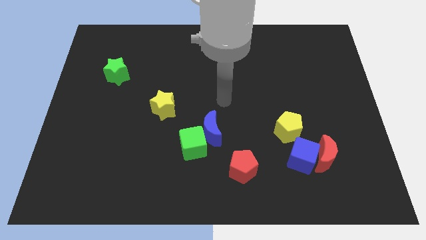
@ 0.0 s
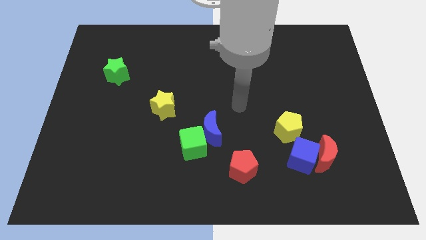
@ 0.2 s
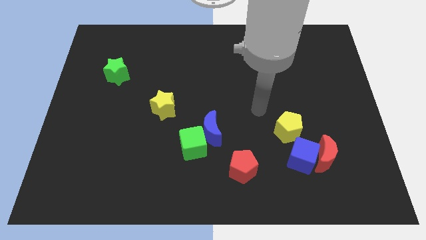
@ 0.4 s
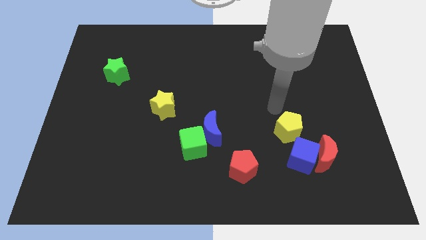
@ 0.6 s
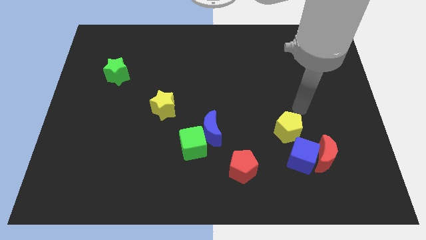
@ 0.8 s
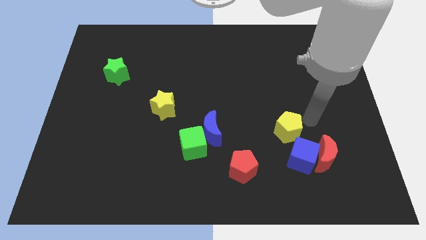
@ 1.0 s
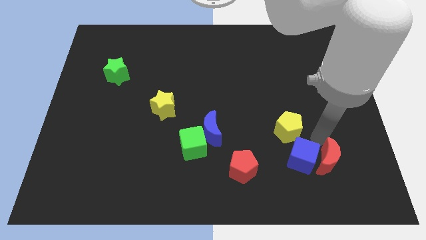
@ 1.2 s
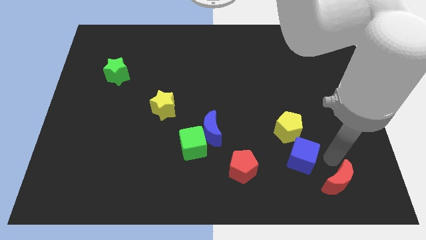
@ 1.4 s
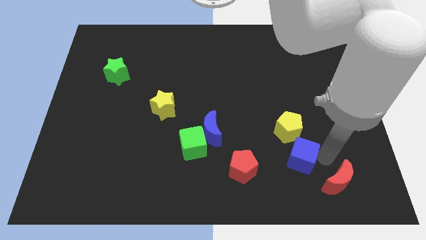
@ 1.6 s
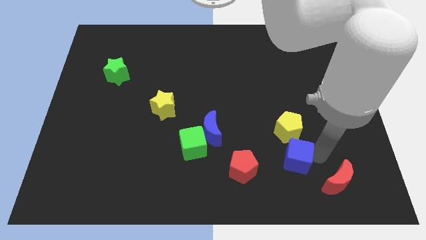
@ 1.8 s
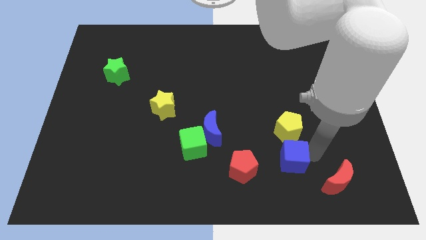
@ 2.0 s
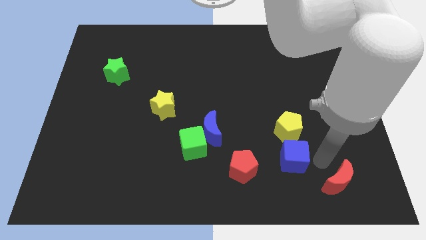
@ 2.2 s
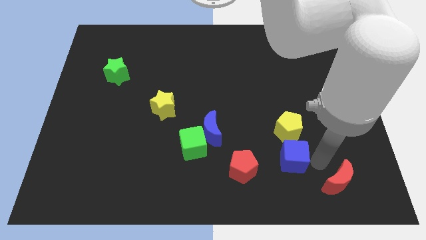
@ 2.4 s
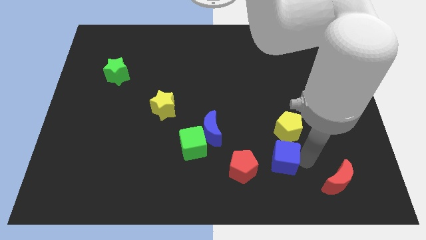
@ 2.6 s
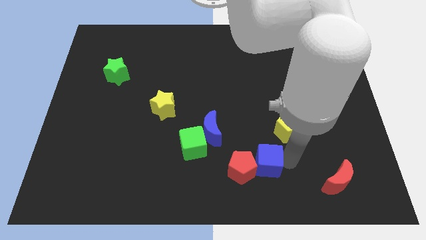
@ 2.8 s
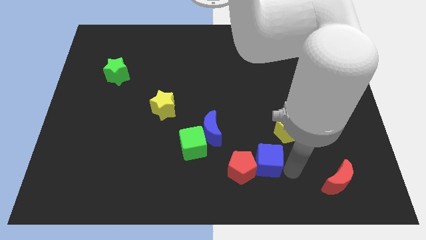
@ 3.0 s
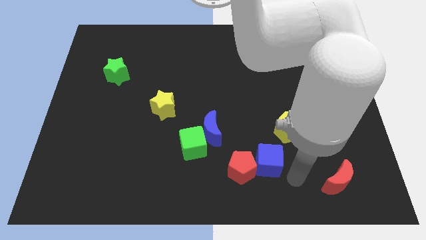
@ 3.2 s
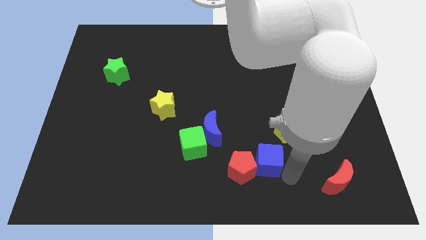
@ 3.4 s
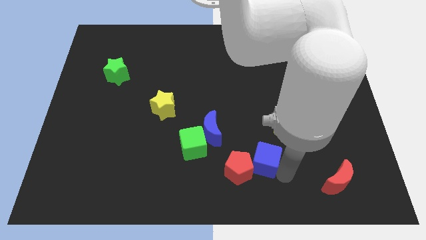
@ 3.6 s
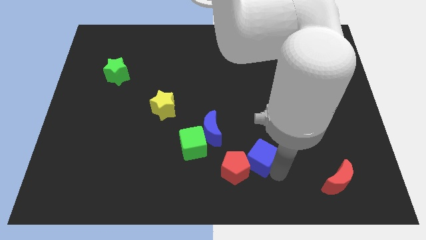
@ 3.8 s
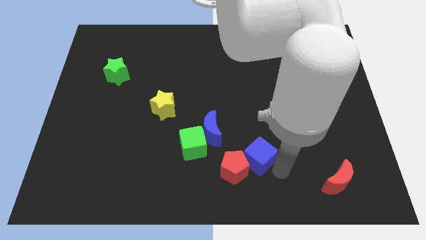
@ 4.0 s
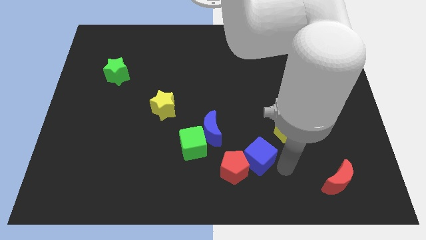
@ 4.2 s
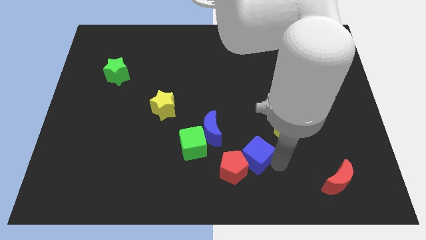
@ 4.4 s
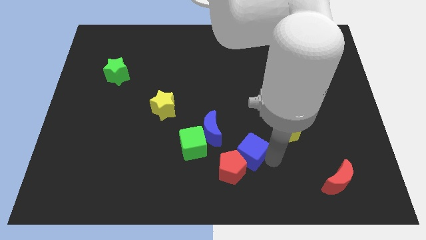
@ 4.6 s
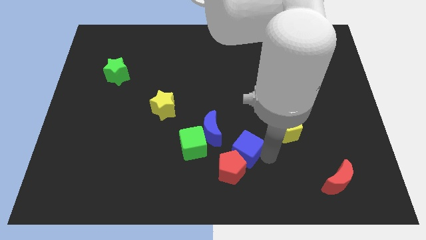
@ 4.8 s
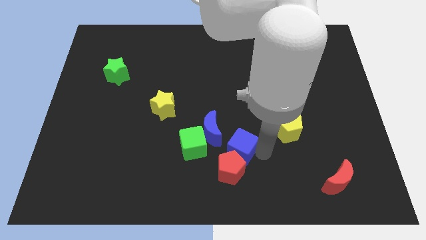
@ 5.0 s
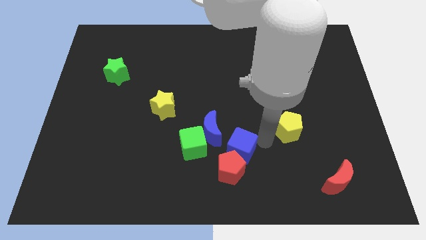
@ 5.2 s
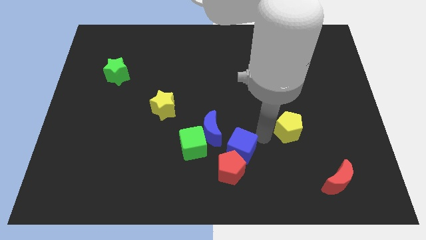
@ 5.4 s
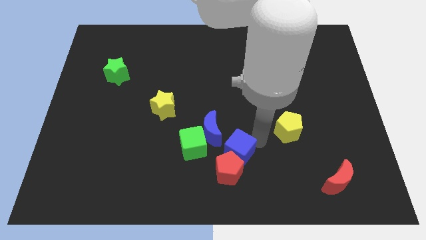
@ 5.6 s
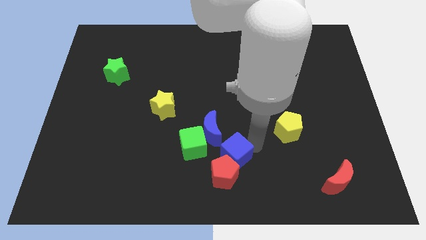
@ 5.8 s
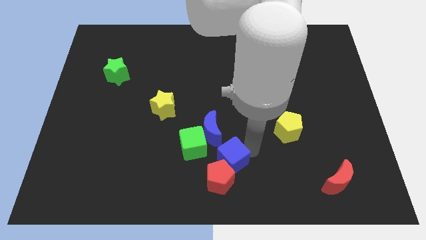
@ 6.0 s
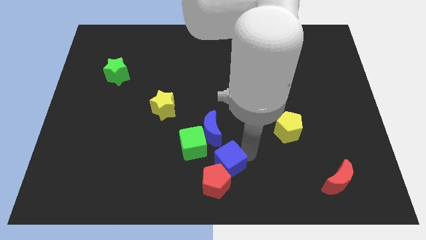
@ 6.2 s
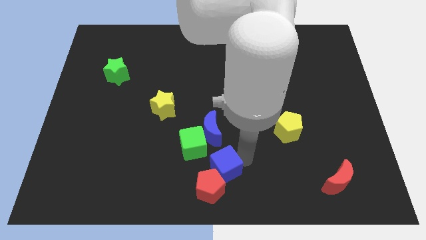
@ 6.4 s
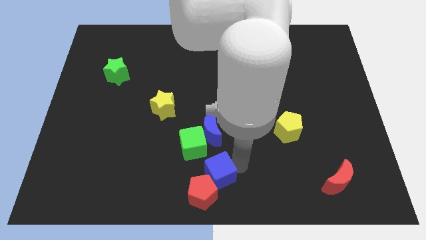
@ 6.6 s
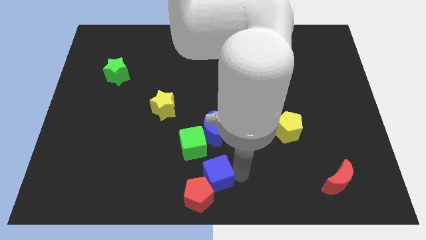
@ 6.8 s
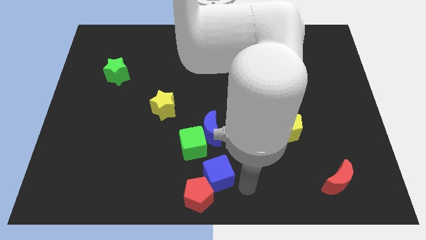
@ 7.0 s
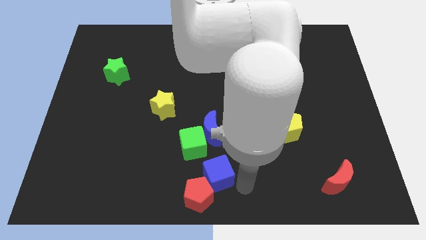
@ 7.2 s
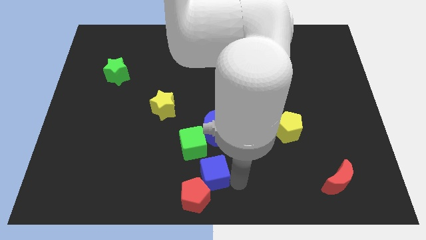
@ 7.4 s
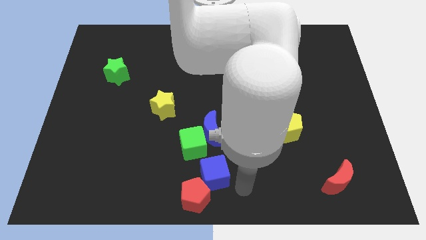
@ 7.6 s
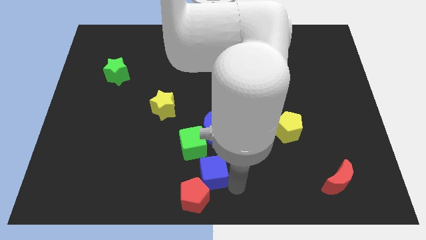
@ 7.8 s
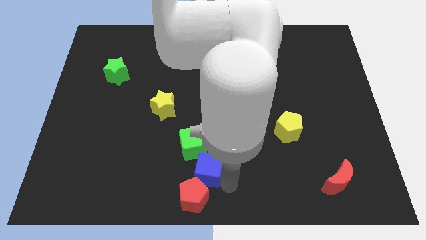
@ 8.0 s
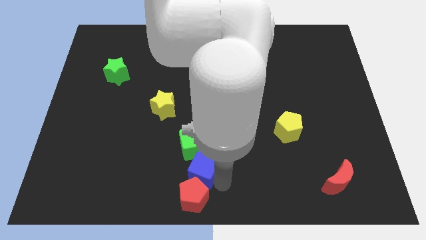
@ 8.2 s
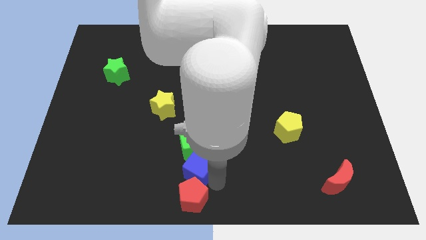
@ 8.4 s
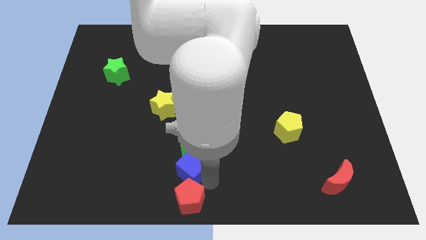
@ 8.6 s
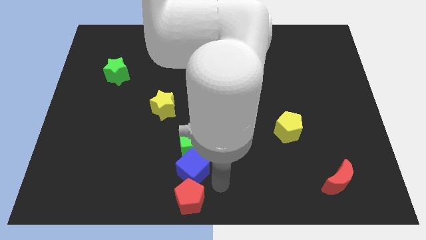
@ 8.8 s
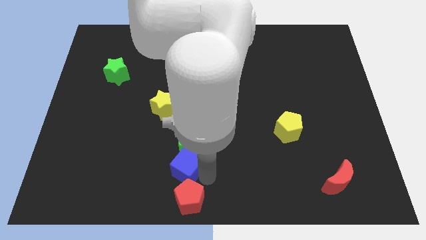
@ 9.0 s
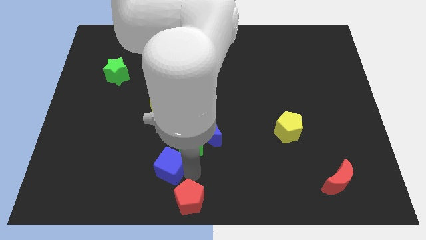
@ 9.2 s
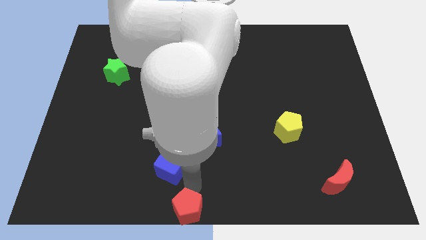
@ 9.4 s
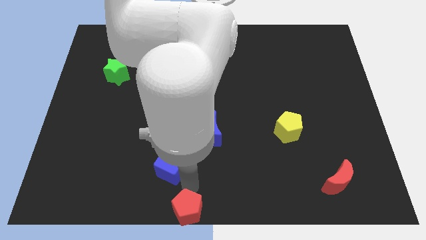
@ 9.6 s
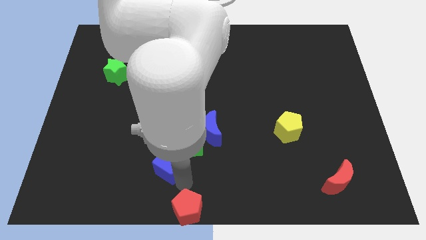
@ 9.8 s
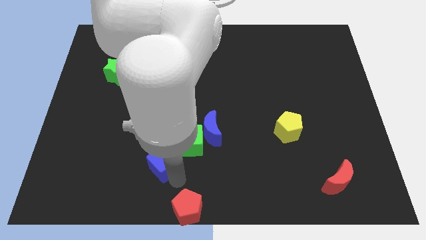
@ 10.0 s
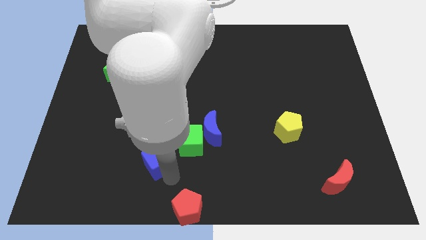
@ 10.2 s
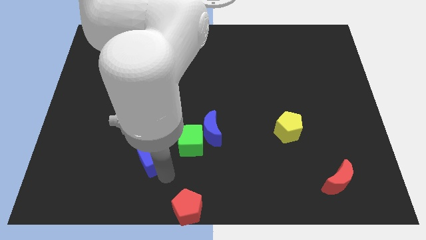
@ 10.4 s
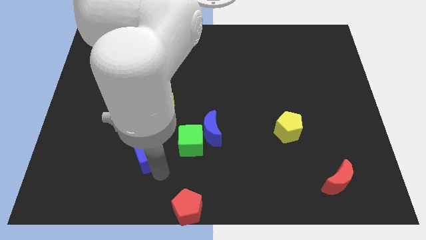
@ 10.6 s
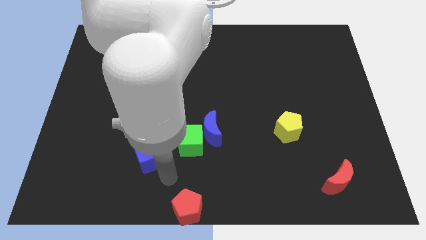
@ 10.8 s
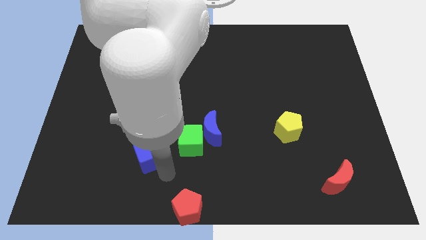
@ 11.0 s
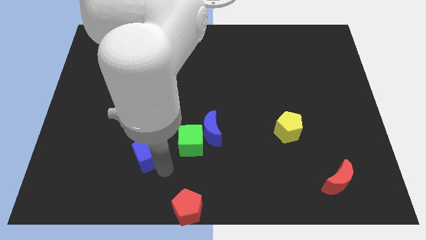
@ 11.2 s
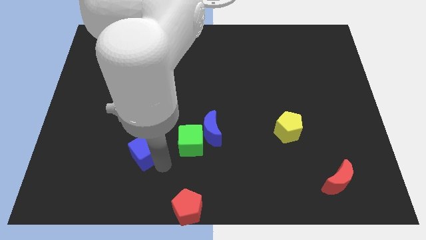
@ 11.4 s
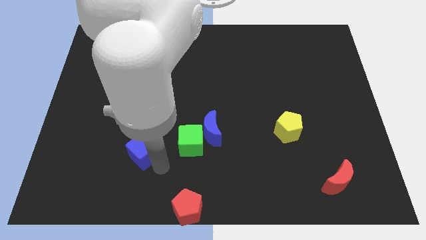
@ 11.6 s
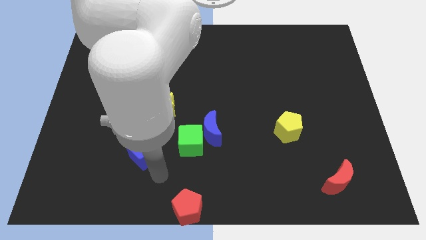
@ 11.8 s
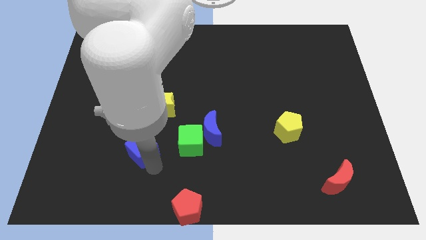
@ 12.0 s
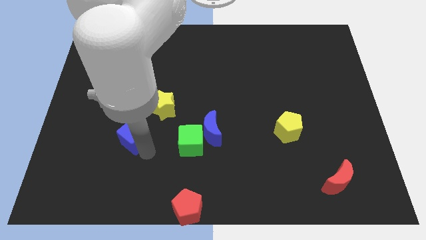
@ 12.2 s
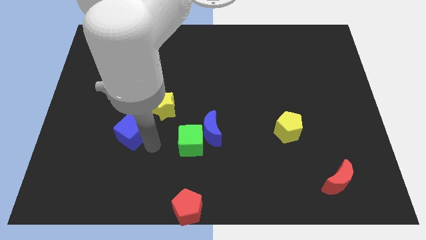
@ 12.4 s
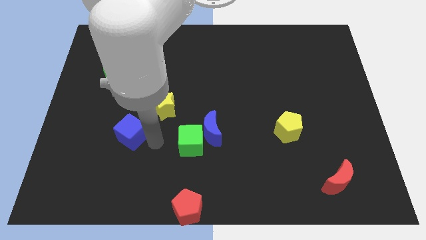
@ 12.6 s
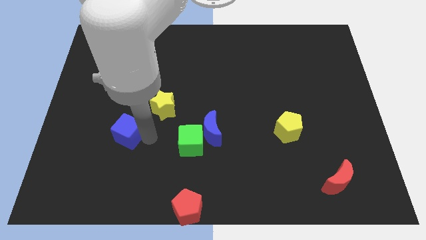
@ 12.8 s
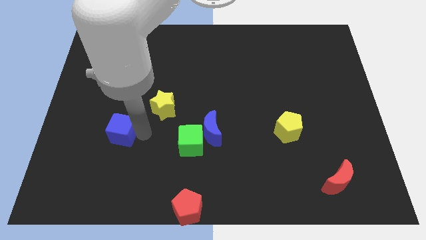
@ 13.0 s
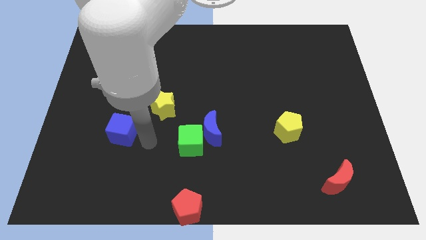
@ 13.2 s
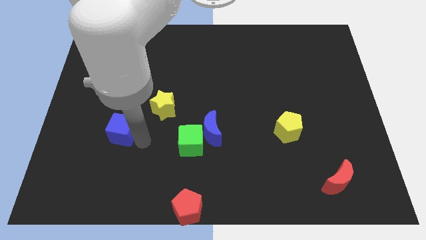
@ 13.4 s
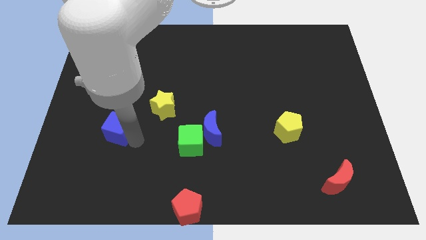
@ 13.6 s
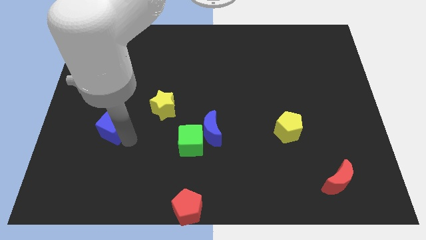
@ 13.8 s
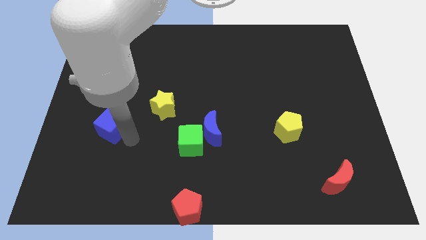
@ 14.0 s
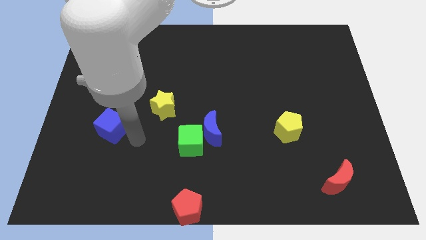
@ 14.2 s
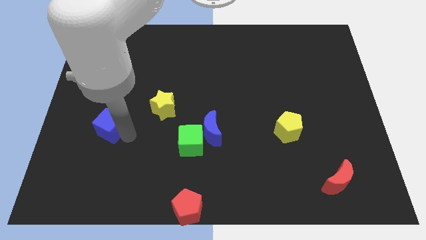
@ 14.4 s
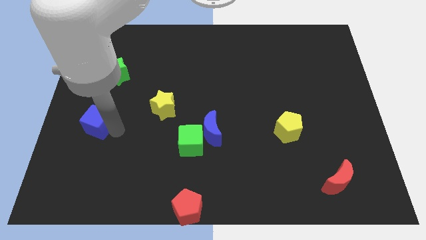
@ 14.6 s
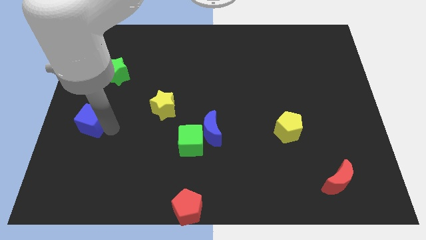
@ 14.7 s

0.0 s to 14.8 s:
put the blue cube to the center left
